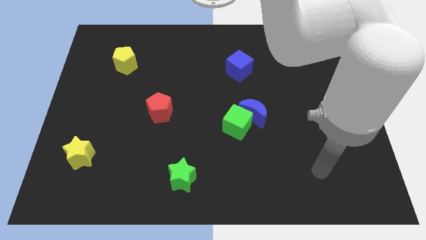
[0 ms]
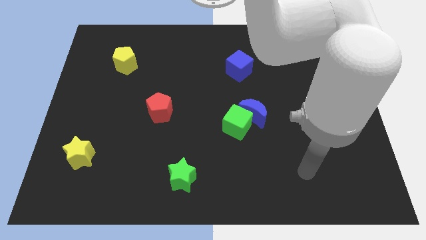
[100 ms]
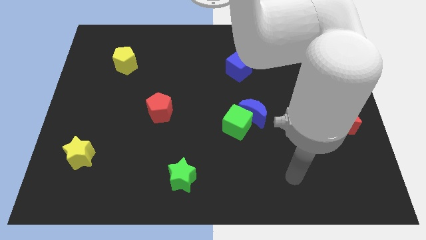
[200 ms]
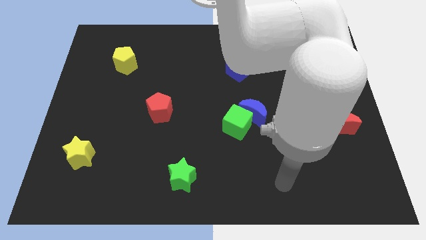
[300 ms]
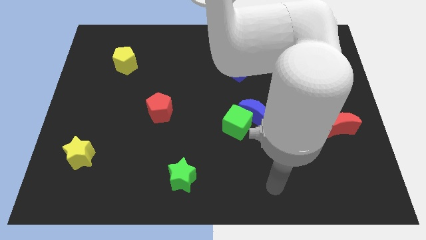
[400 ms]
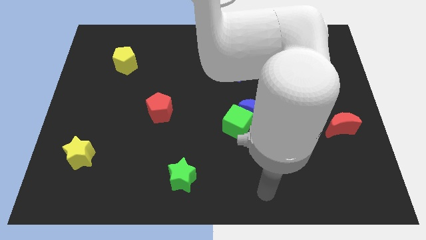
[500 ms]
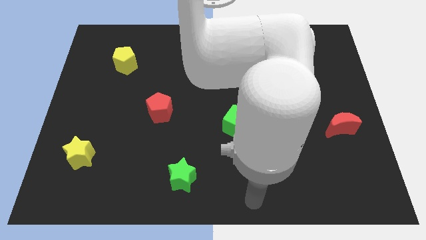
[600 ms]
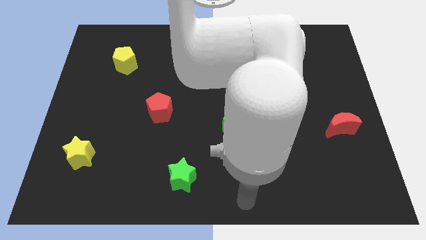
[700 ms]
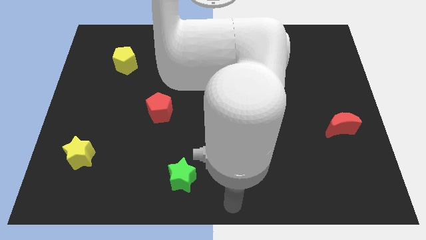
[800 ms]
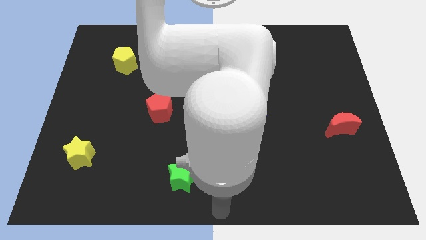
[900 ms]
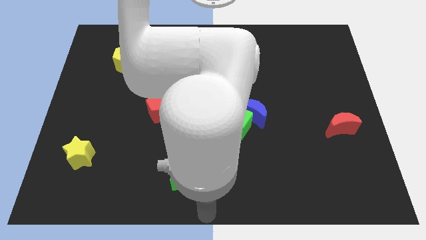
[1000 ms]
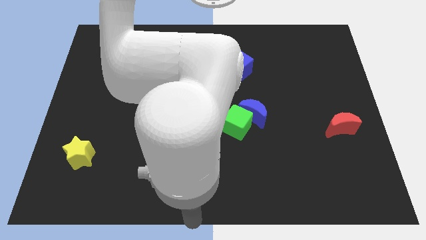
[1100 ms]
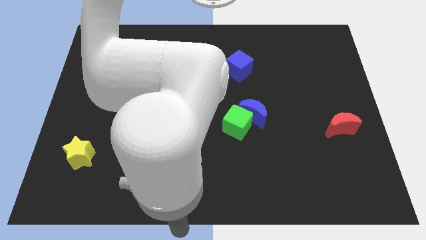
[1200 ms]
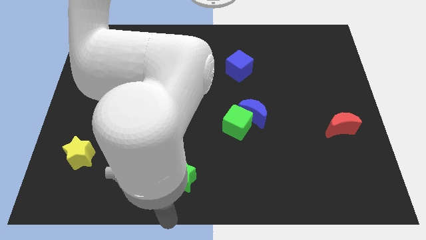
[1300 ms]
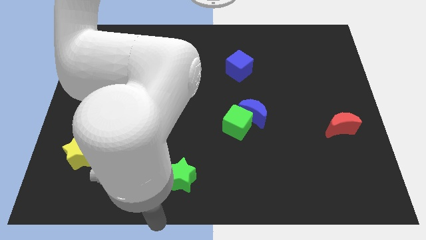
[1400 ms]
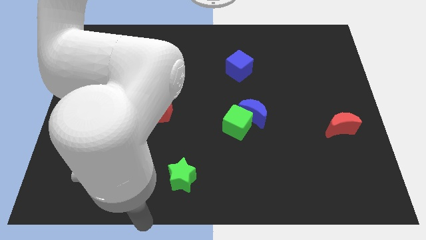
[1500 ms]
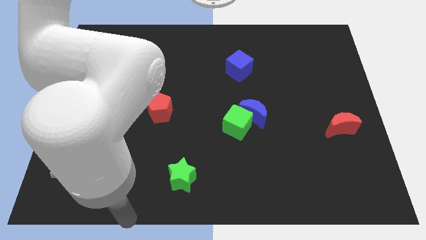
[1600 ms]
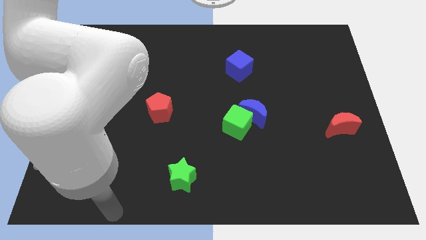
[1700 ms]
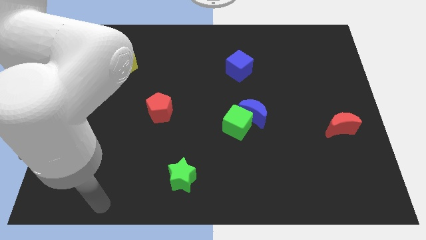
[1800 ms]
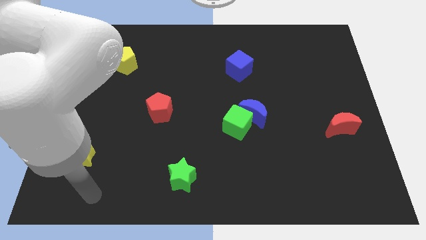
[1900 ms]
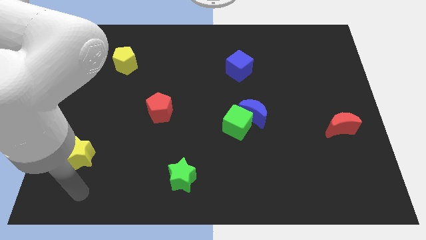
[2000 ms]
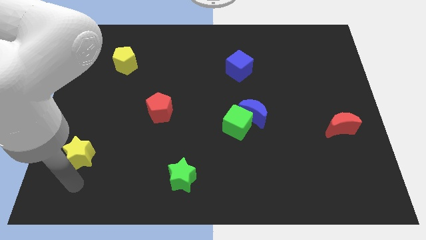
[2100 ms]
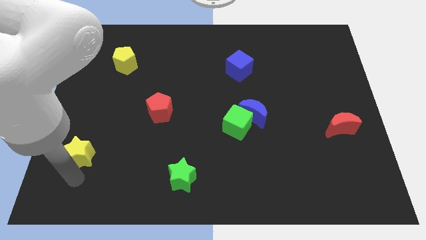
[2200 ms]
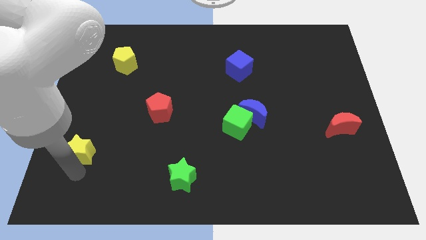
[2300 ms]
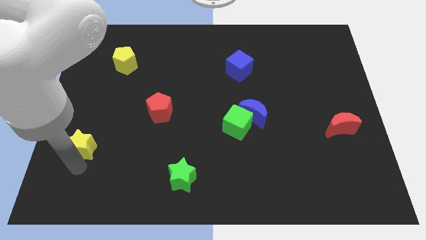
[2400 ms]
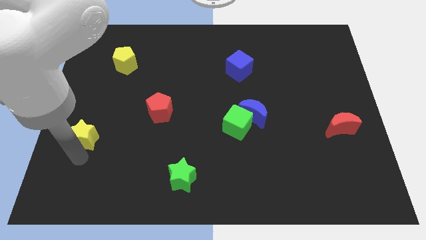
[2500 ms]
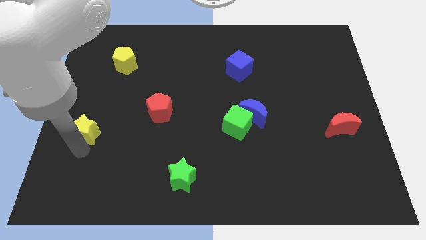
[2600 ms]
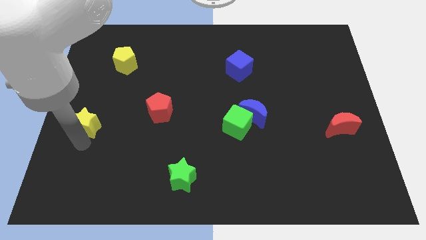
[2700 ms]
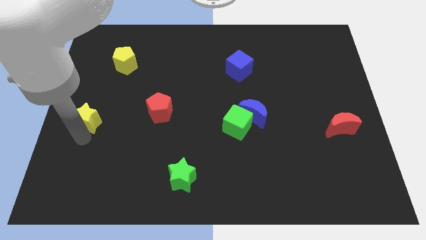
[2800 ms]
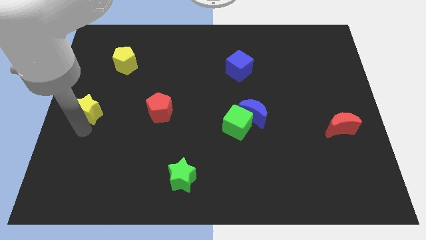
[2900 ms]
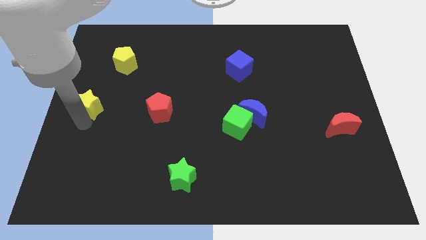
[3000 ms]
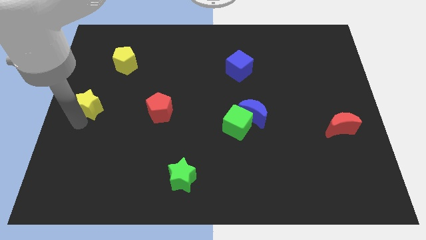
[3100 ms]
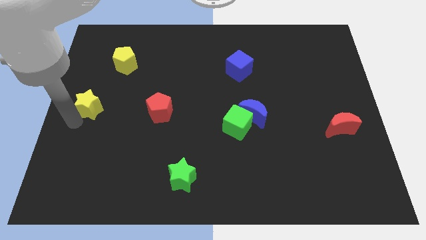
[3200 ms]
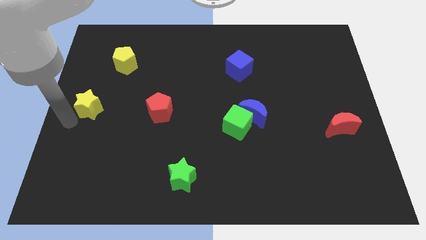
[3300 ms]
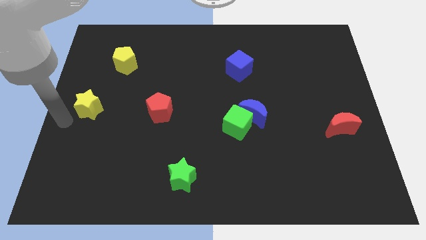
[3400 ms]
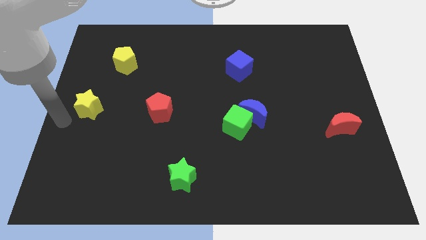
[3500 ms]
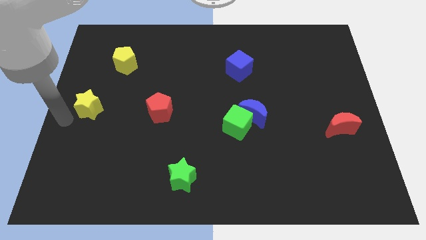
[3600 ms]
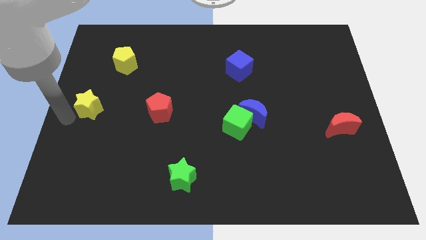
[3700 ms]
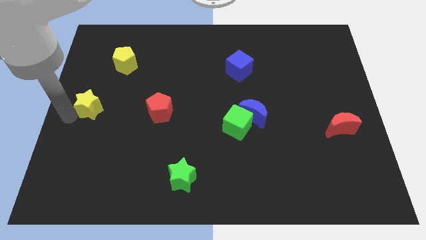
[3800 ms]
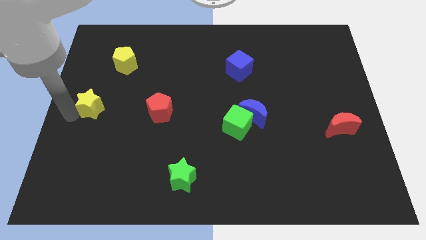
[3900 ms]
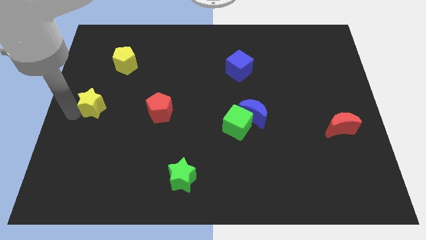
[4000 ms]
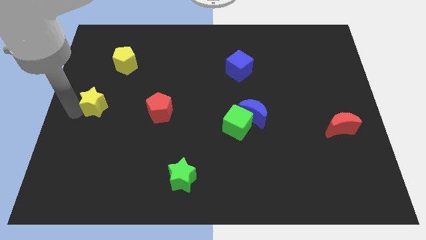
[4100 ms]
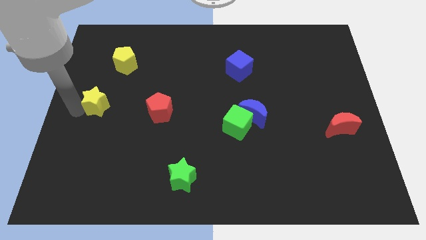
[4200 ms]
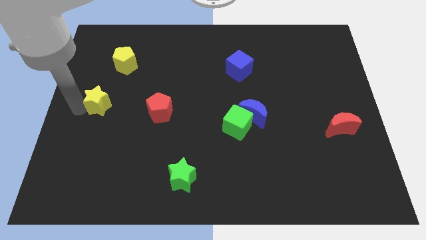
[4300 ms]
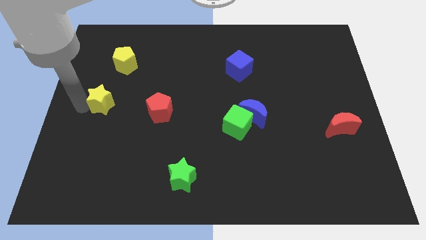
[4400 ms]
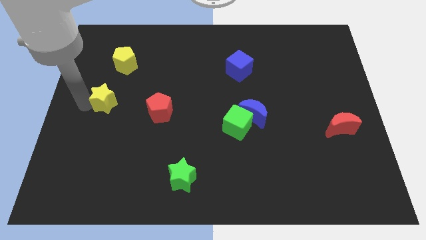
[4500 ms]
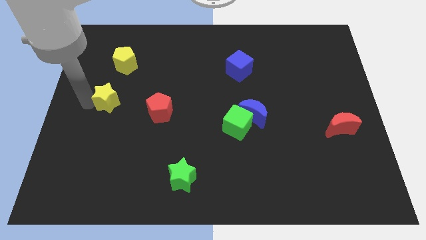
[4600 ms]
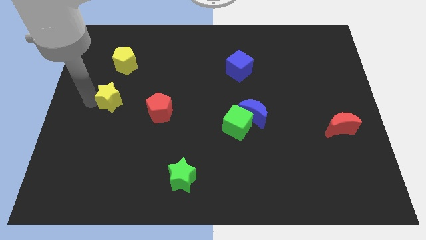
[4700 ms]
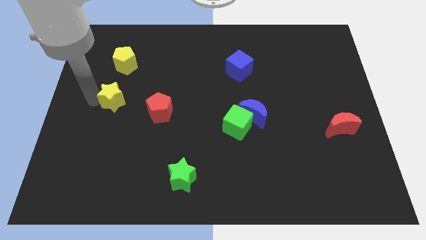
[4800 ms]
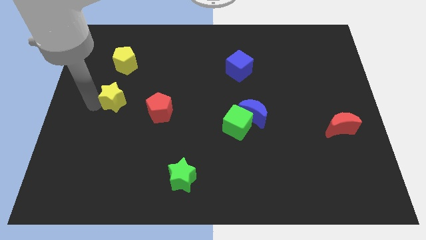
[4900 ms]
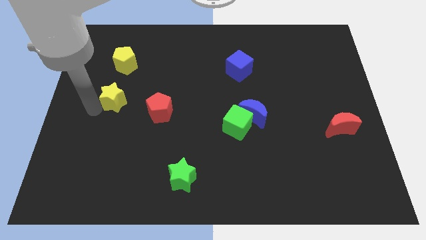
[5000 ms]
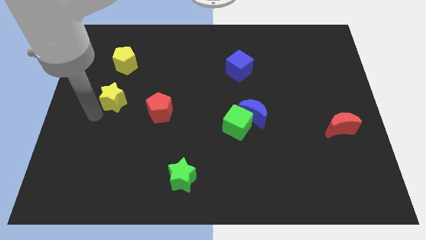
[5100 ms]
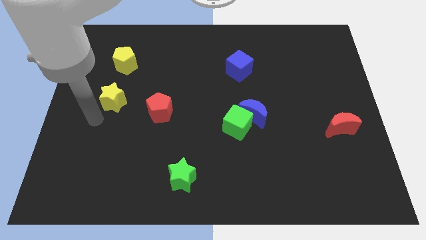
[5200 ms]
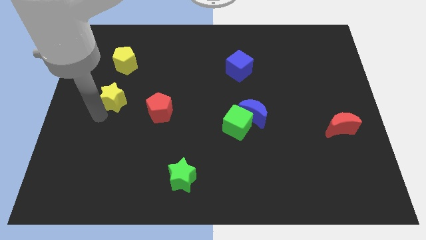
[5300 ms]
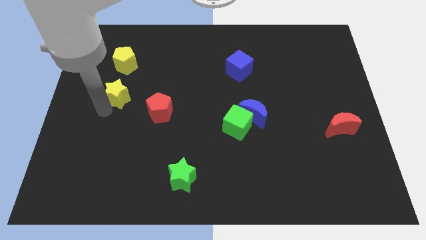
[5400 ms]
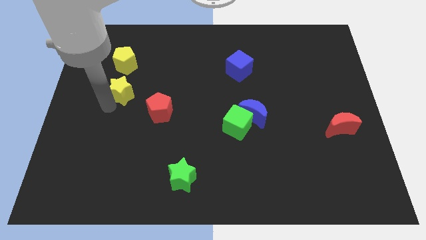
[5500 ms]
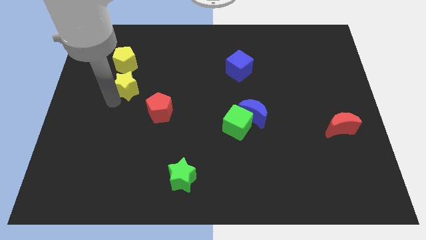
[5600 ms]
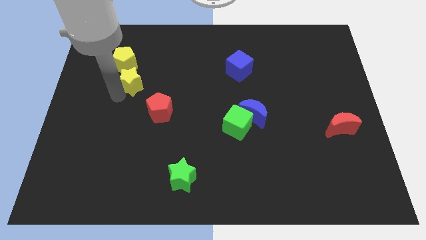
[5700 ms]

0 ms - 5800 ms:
slide the yellow star diagonally down and to the right of the yellow pentagon

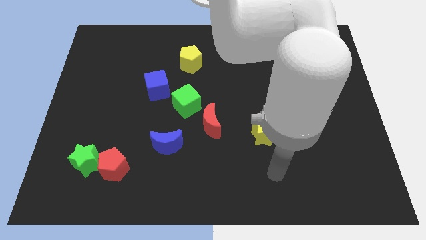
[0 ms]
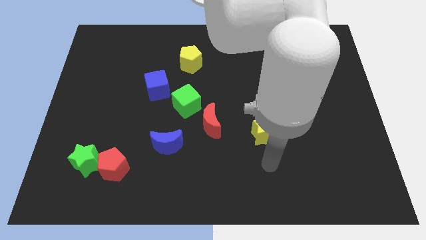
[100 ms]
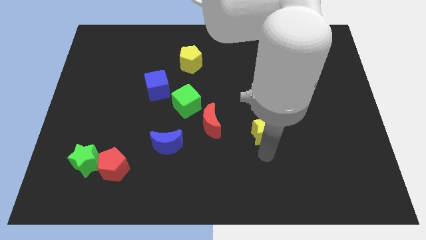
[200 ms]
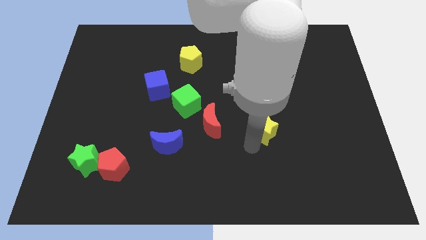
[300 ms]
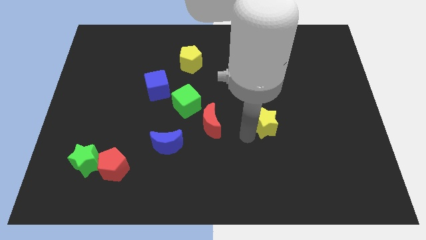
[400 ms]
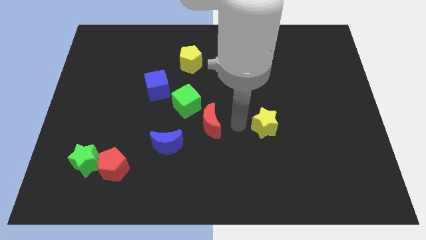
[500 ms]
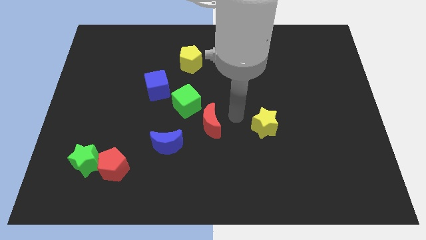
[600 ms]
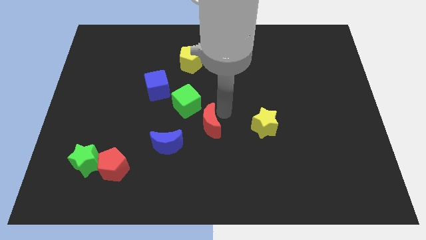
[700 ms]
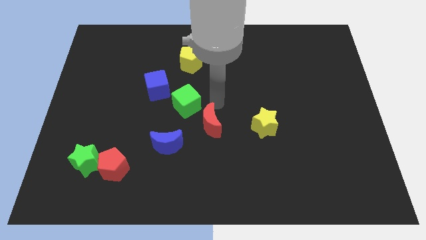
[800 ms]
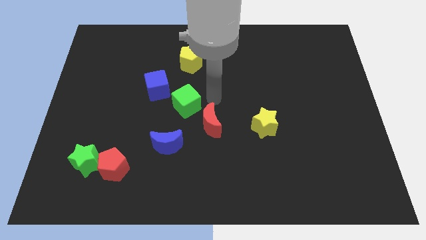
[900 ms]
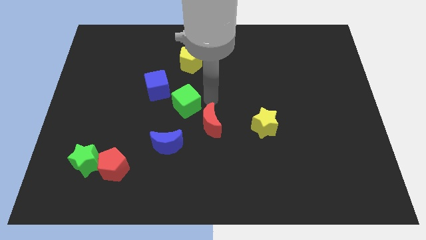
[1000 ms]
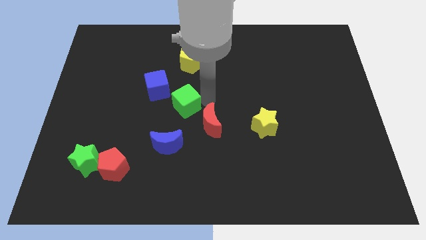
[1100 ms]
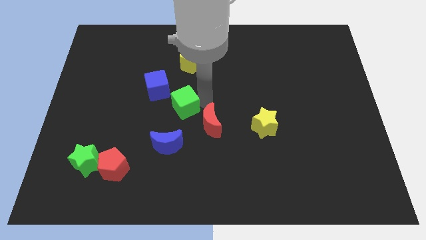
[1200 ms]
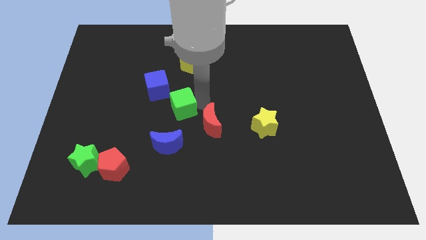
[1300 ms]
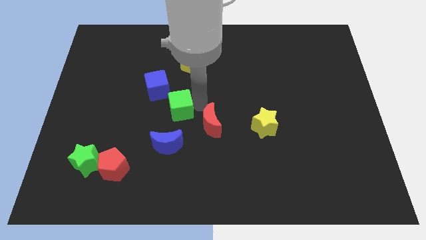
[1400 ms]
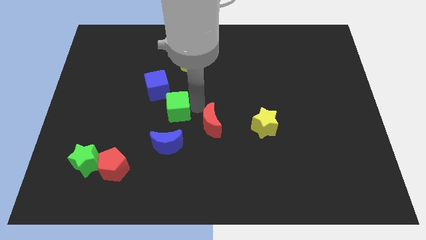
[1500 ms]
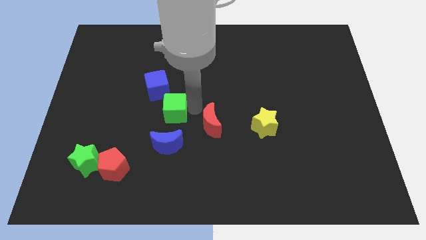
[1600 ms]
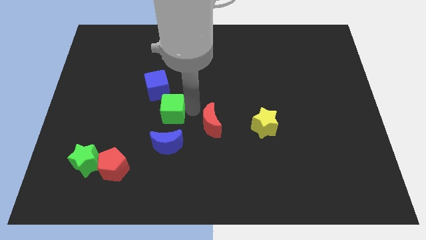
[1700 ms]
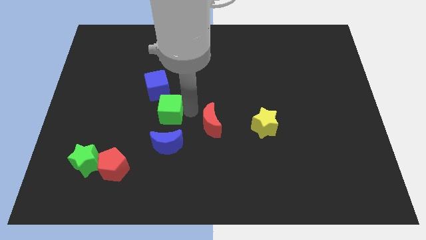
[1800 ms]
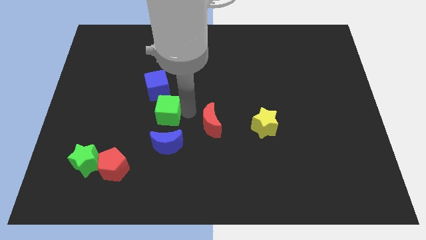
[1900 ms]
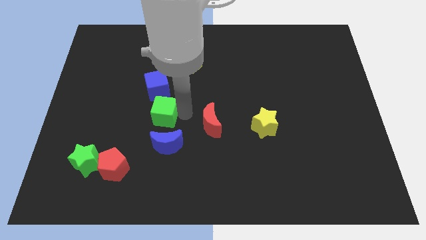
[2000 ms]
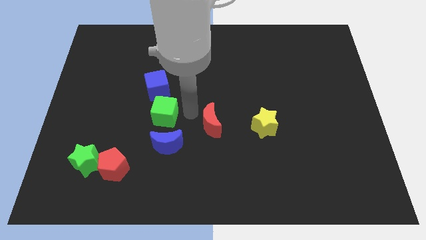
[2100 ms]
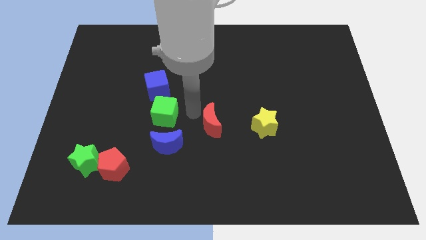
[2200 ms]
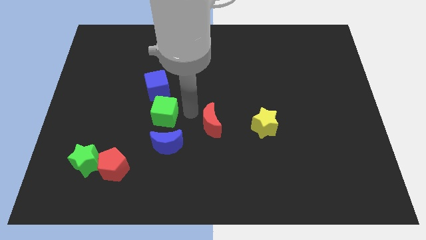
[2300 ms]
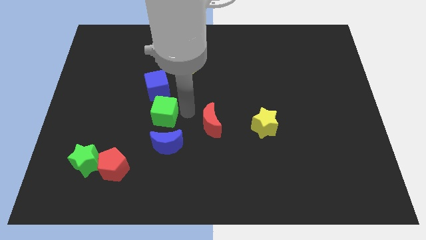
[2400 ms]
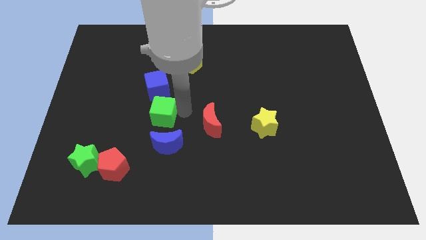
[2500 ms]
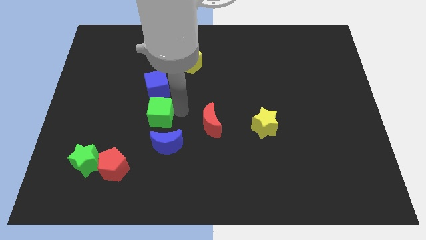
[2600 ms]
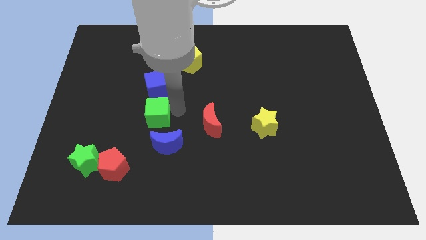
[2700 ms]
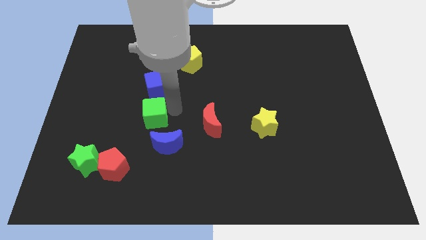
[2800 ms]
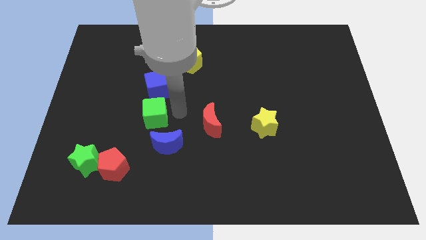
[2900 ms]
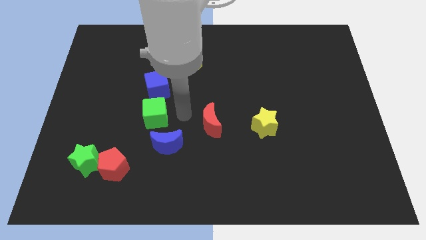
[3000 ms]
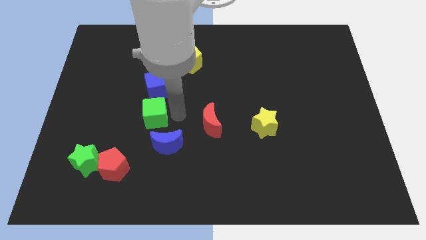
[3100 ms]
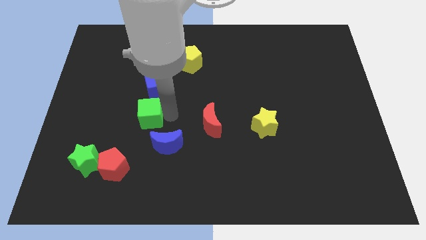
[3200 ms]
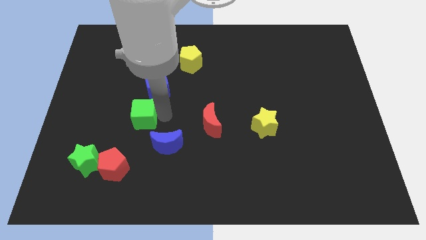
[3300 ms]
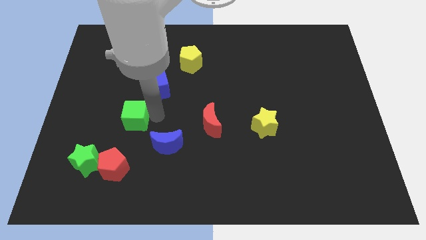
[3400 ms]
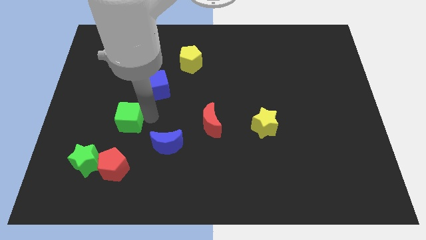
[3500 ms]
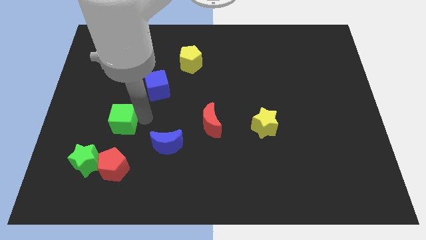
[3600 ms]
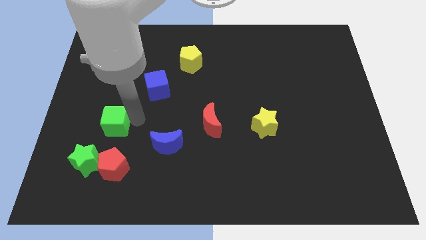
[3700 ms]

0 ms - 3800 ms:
push the green cube to the top of the green star
